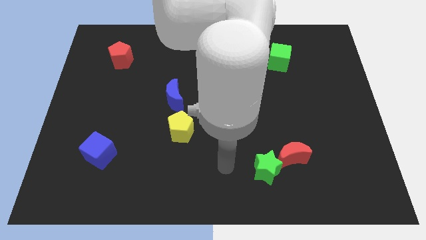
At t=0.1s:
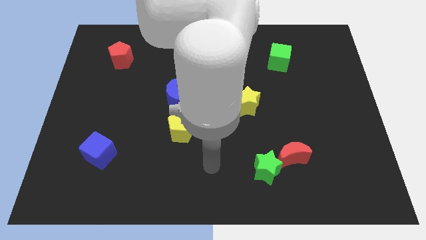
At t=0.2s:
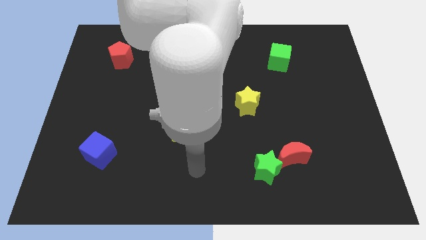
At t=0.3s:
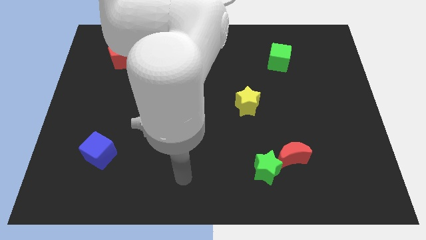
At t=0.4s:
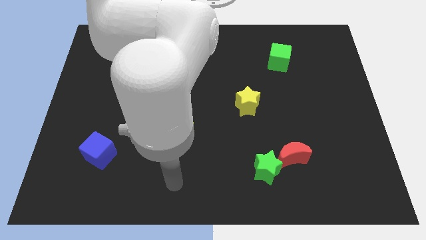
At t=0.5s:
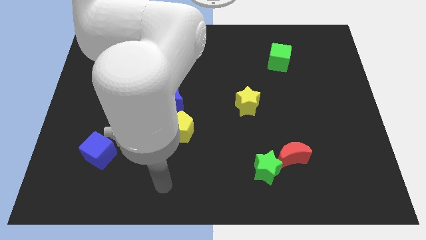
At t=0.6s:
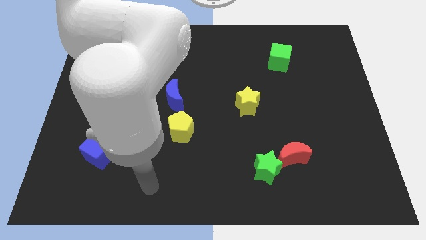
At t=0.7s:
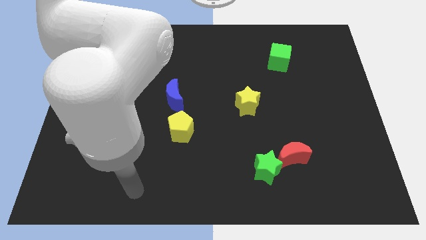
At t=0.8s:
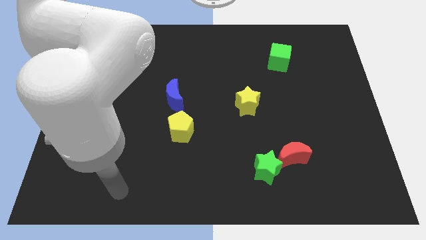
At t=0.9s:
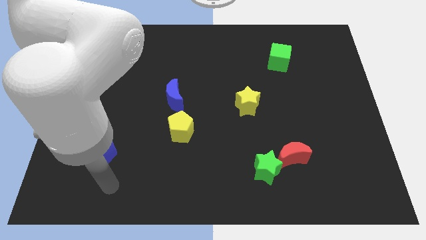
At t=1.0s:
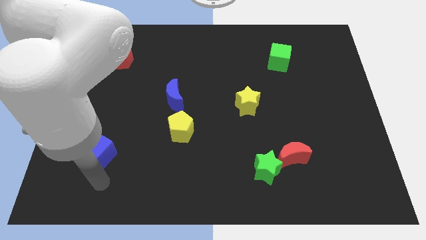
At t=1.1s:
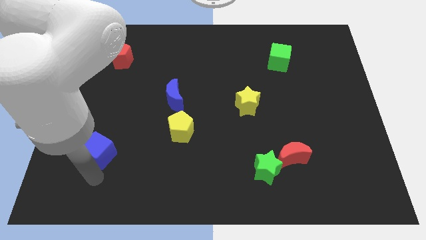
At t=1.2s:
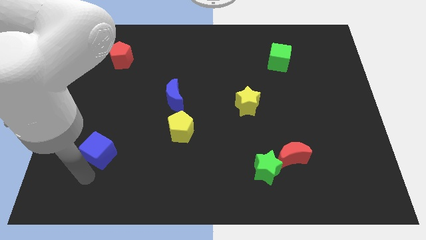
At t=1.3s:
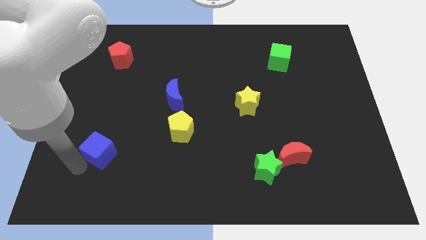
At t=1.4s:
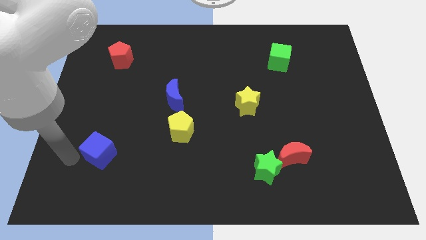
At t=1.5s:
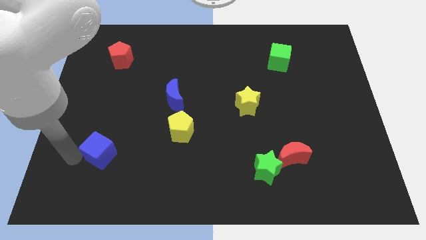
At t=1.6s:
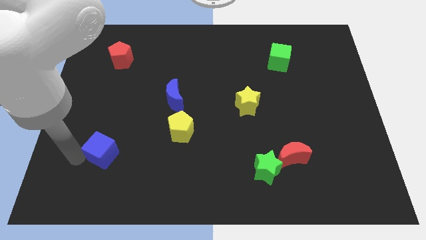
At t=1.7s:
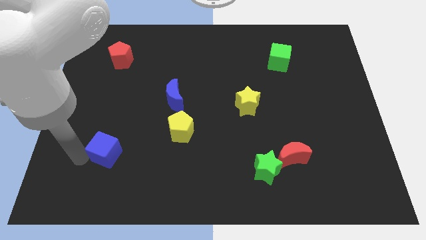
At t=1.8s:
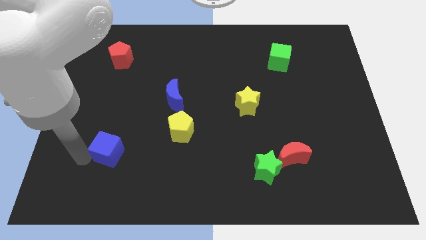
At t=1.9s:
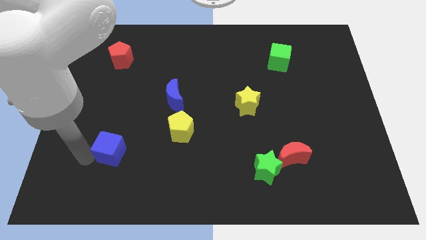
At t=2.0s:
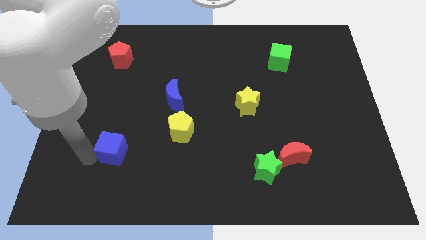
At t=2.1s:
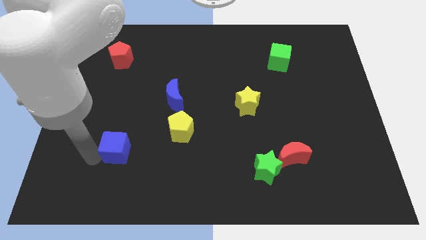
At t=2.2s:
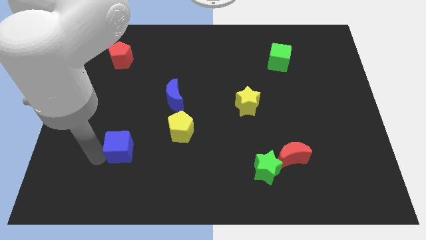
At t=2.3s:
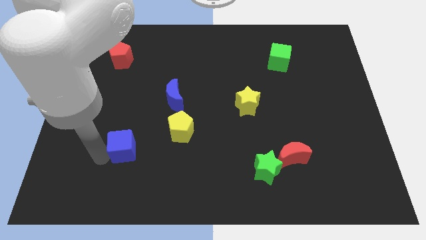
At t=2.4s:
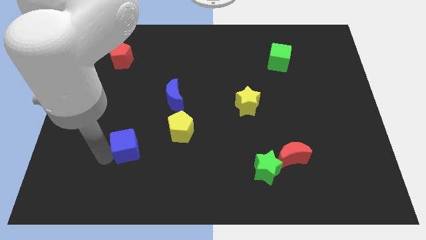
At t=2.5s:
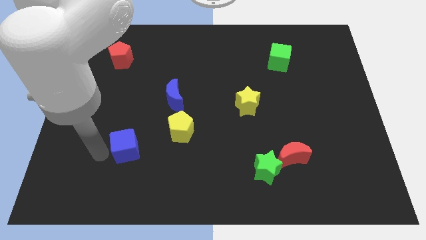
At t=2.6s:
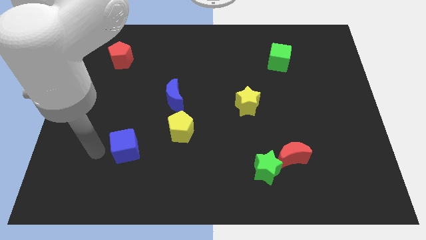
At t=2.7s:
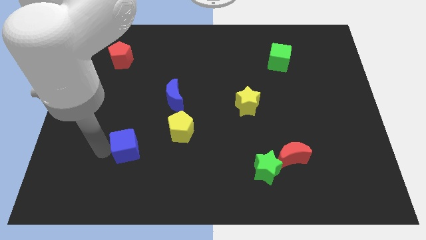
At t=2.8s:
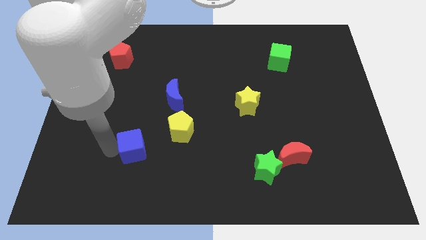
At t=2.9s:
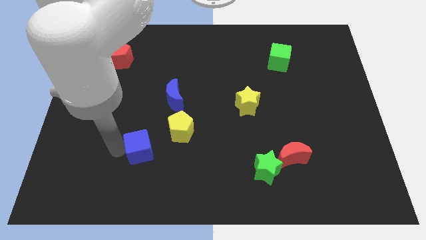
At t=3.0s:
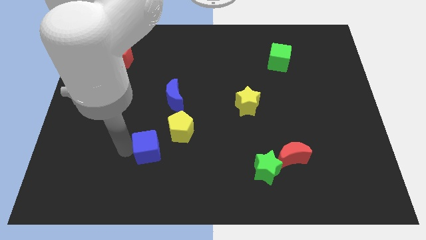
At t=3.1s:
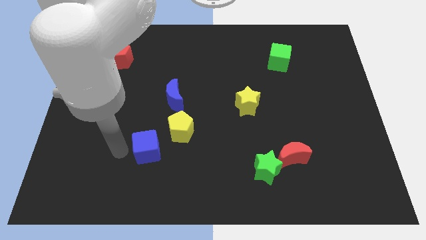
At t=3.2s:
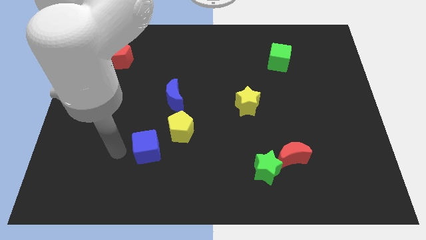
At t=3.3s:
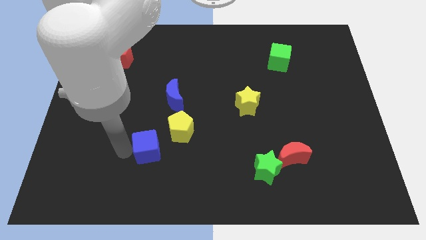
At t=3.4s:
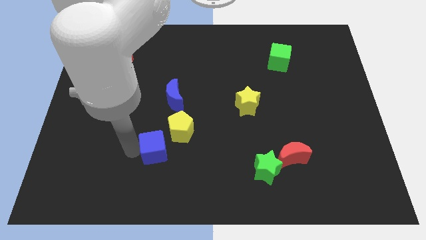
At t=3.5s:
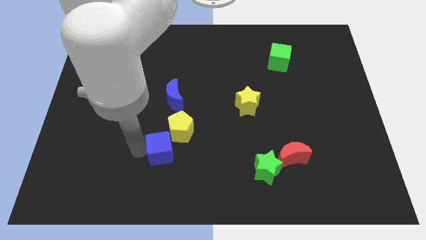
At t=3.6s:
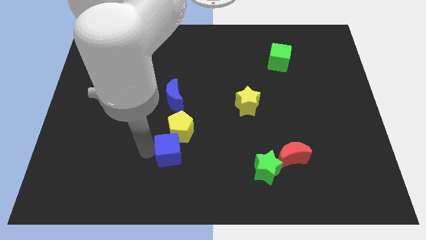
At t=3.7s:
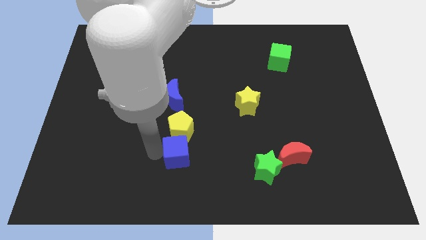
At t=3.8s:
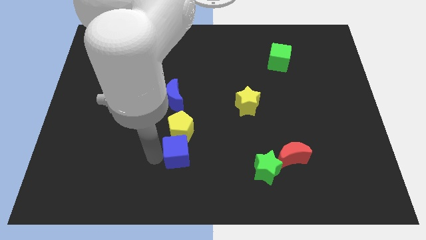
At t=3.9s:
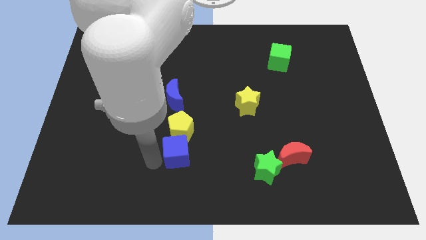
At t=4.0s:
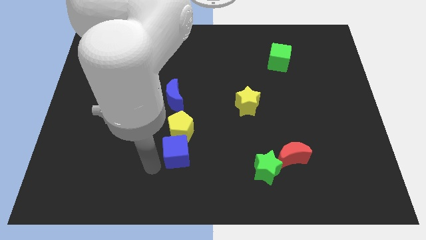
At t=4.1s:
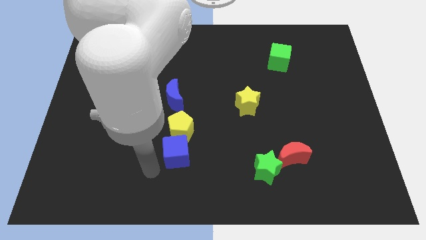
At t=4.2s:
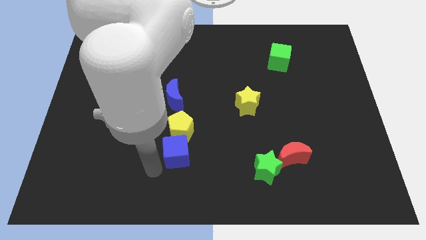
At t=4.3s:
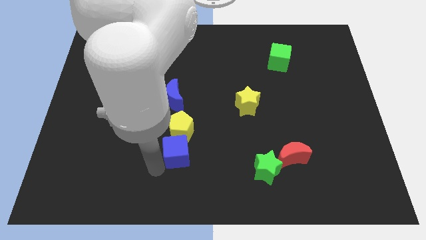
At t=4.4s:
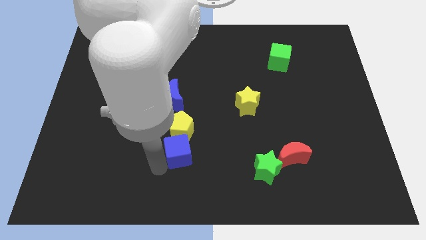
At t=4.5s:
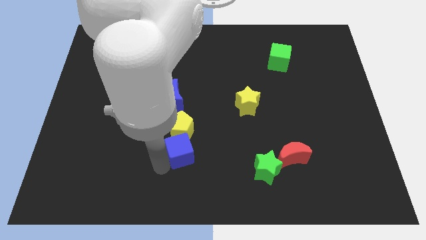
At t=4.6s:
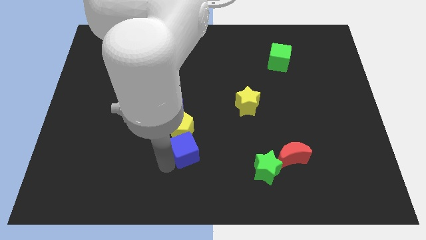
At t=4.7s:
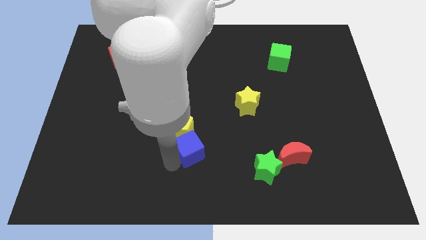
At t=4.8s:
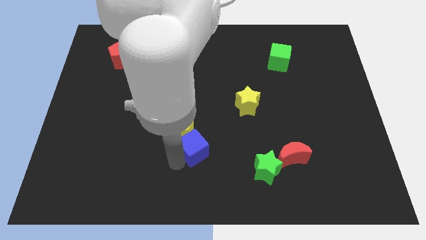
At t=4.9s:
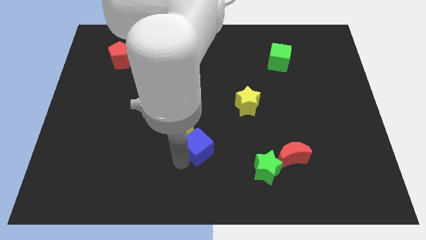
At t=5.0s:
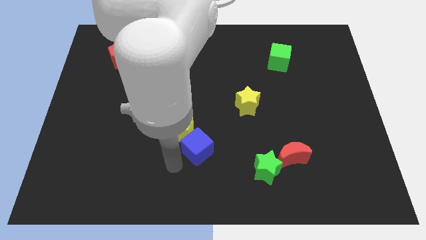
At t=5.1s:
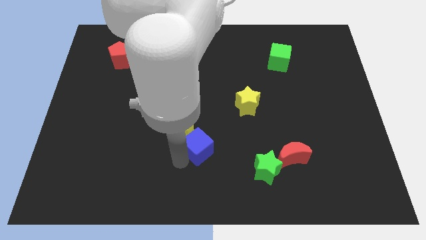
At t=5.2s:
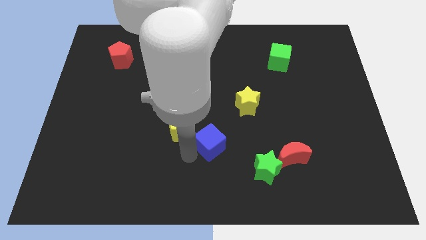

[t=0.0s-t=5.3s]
move the blue cube just right of the yellow pentagon

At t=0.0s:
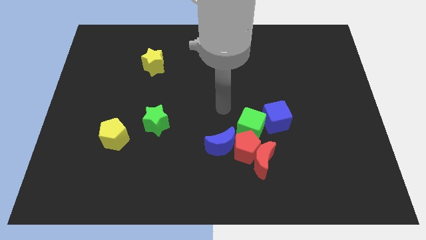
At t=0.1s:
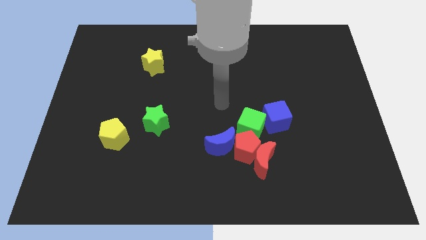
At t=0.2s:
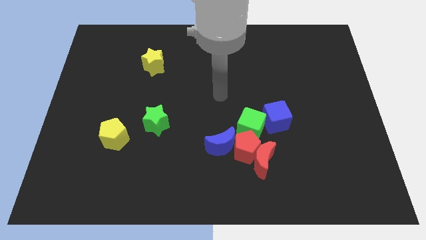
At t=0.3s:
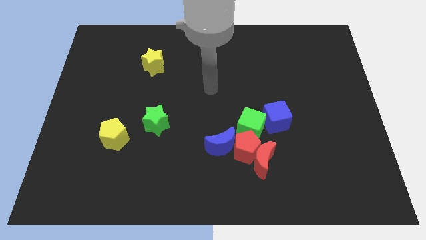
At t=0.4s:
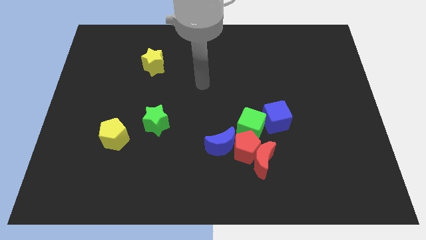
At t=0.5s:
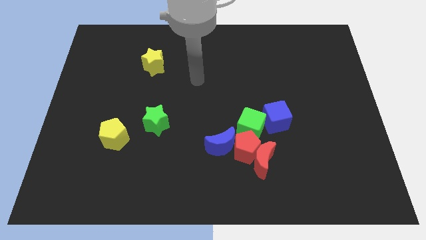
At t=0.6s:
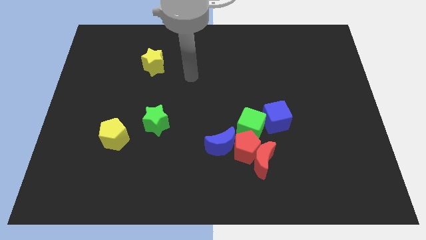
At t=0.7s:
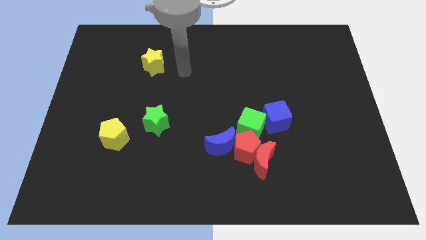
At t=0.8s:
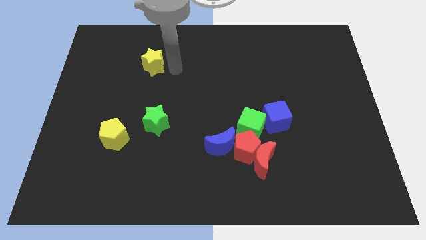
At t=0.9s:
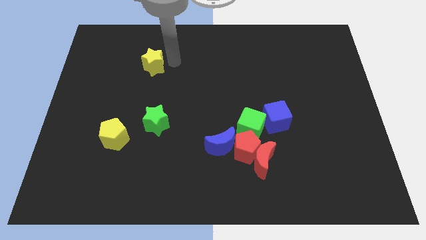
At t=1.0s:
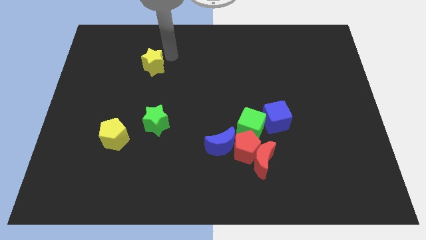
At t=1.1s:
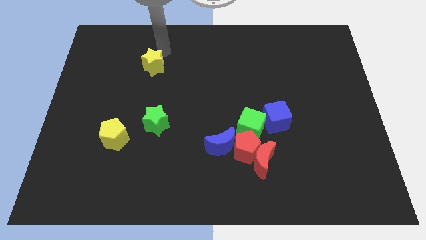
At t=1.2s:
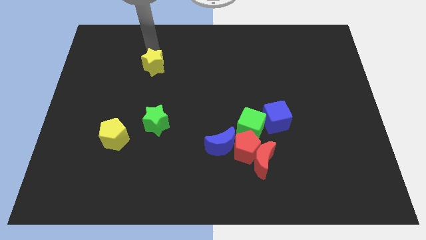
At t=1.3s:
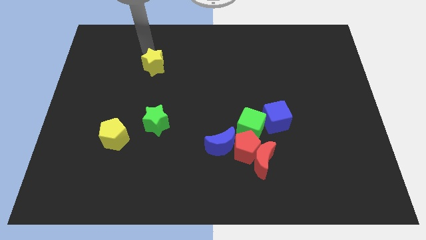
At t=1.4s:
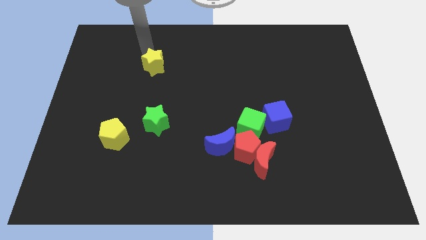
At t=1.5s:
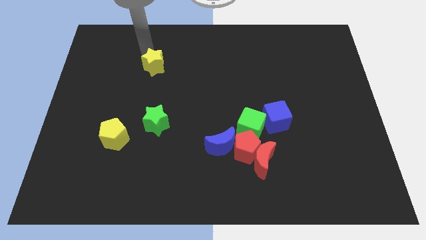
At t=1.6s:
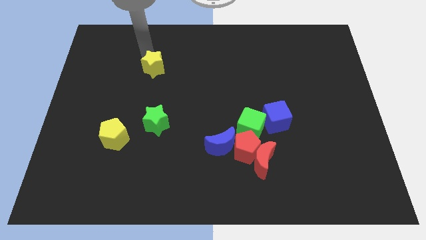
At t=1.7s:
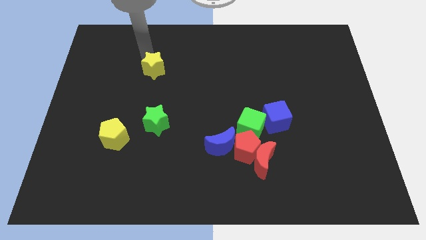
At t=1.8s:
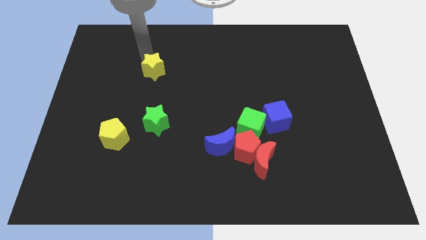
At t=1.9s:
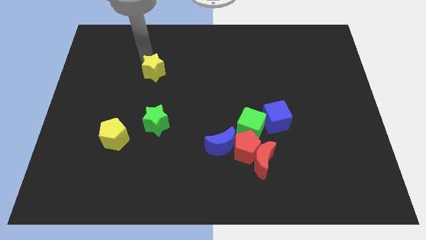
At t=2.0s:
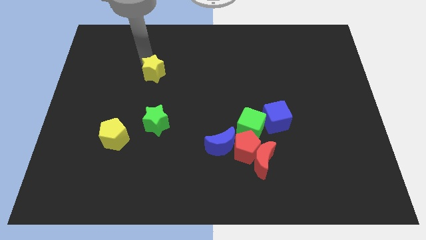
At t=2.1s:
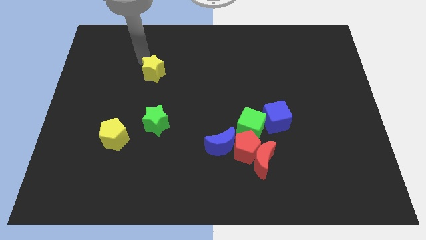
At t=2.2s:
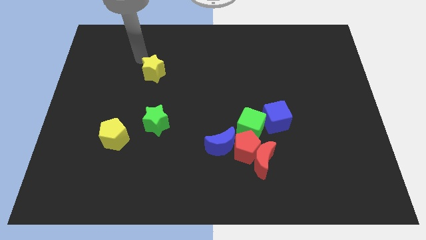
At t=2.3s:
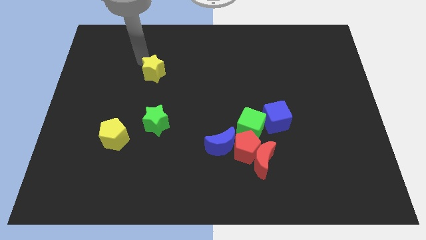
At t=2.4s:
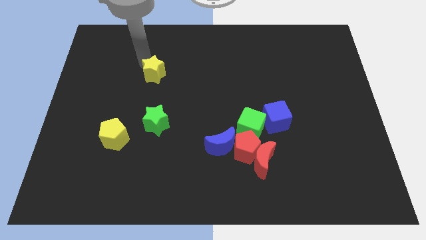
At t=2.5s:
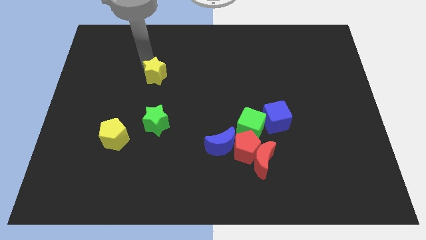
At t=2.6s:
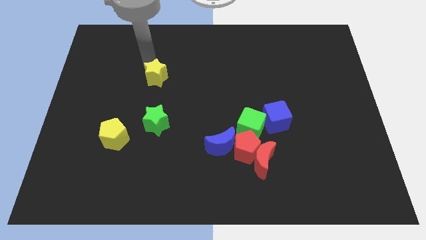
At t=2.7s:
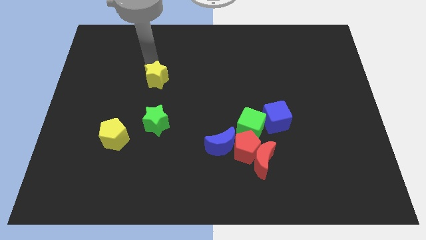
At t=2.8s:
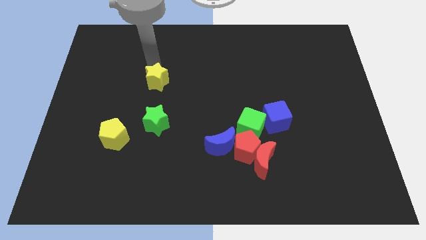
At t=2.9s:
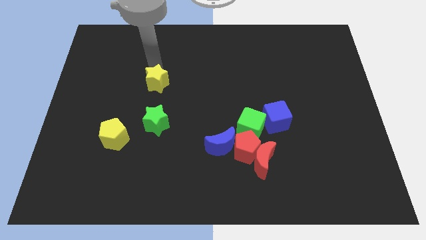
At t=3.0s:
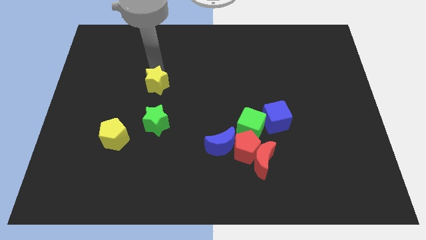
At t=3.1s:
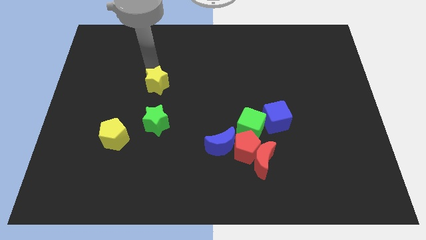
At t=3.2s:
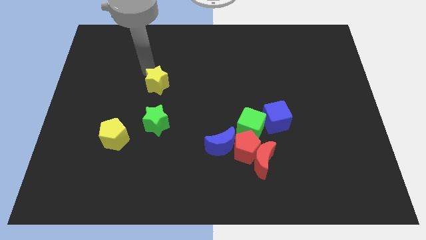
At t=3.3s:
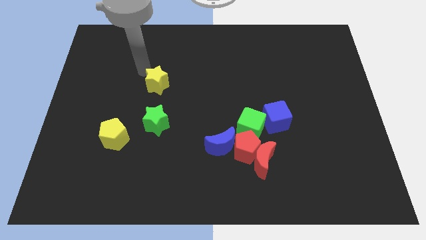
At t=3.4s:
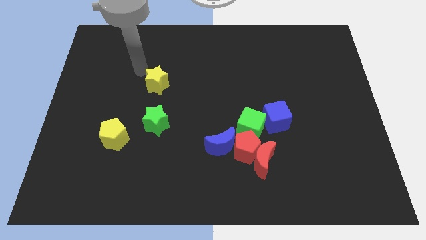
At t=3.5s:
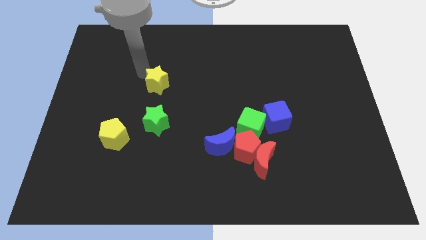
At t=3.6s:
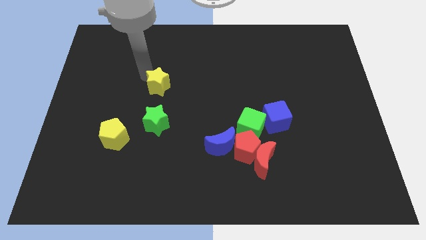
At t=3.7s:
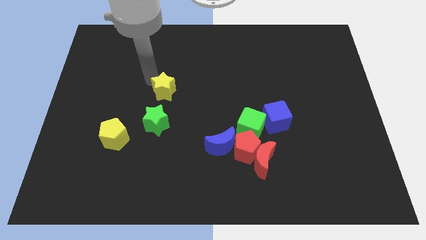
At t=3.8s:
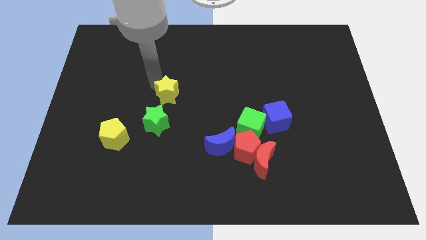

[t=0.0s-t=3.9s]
move the yellow star diagonally up and to the right of the green star
